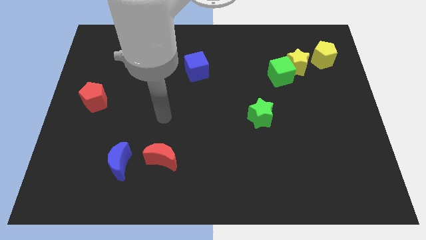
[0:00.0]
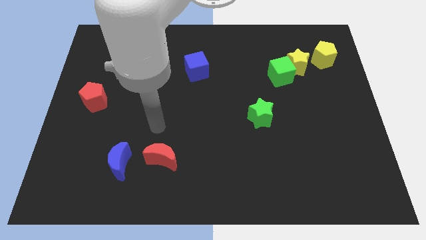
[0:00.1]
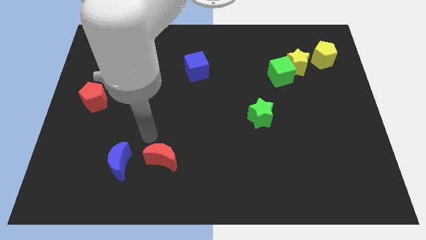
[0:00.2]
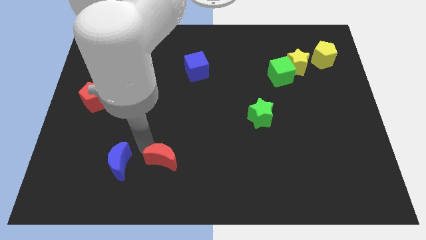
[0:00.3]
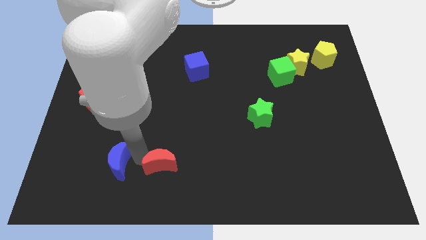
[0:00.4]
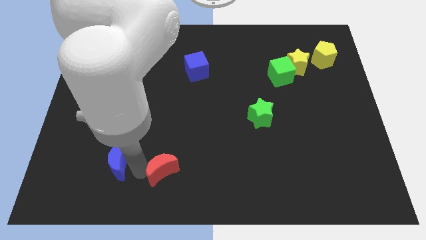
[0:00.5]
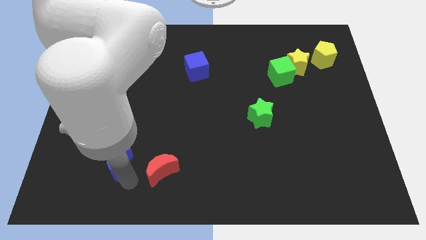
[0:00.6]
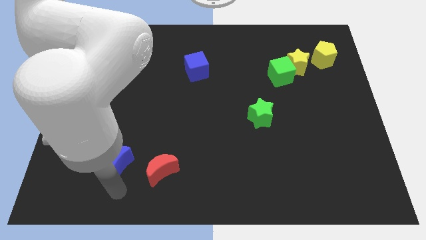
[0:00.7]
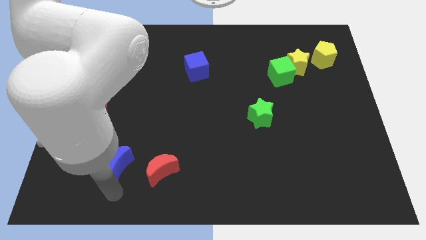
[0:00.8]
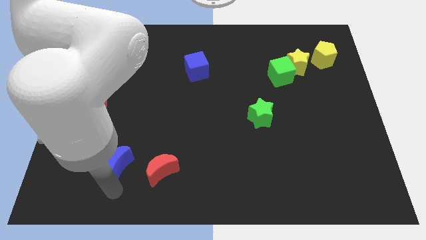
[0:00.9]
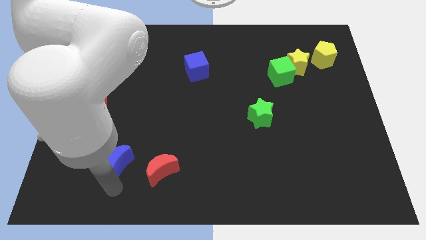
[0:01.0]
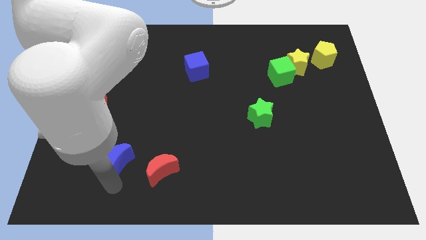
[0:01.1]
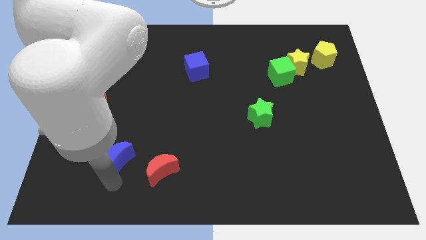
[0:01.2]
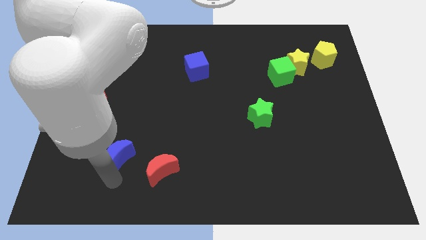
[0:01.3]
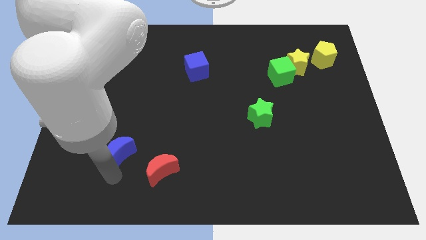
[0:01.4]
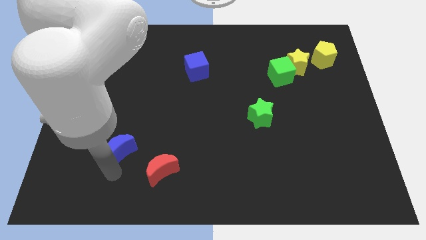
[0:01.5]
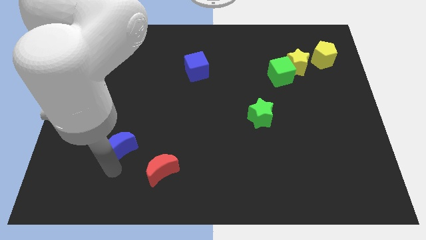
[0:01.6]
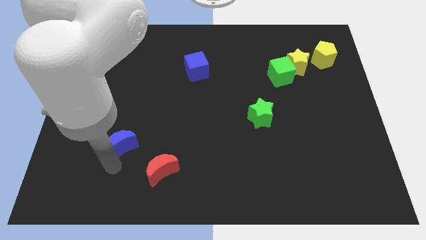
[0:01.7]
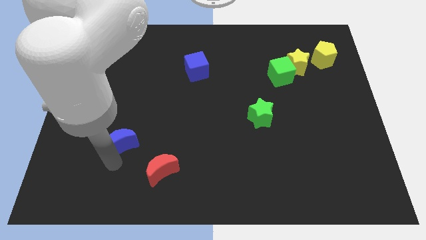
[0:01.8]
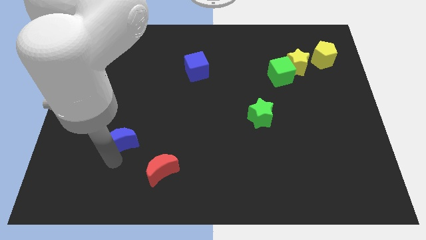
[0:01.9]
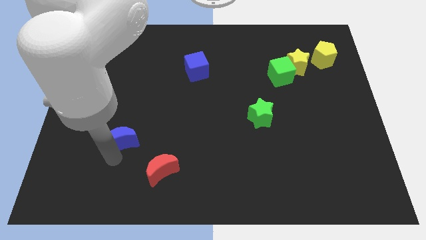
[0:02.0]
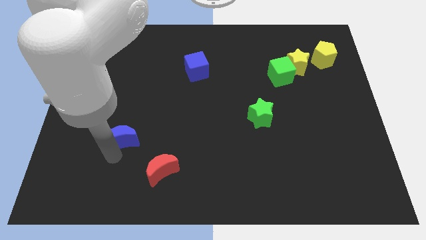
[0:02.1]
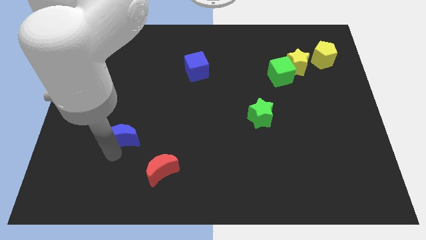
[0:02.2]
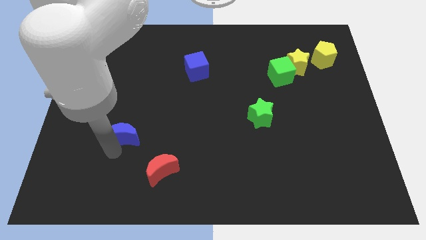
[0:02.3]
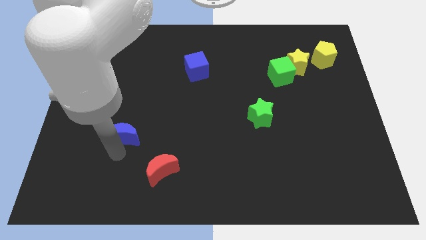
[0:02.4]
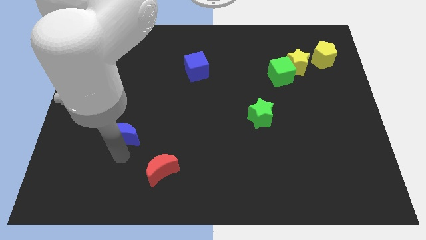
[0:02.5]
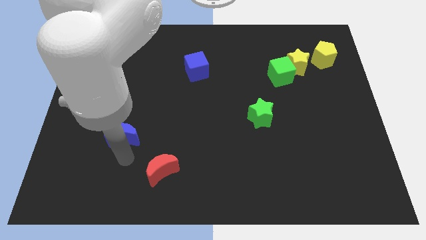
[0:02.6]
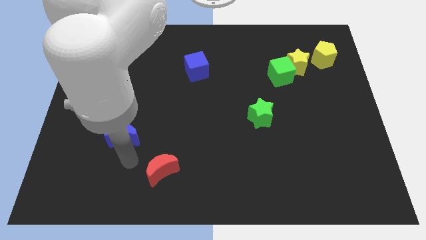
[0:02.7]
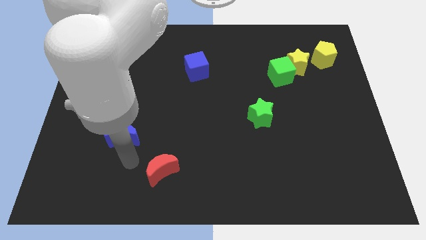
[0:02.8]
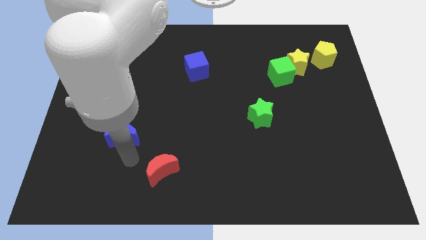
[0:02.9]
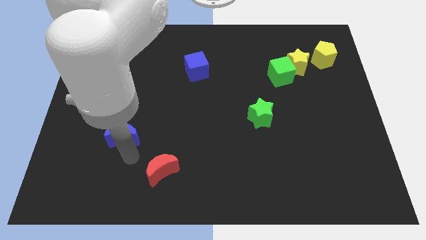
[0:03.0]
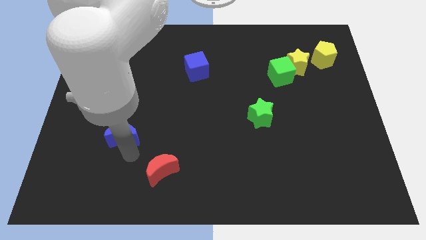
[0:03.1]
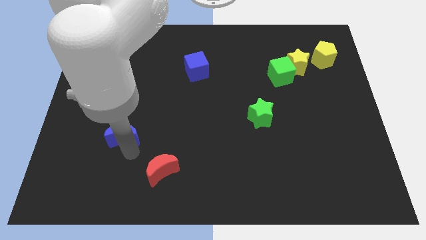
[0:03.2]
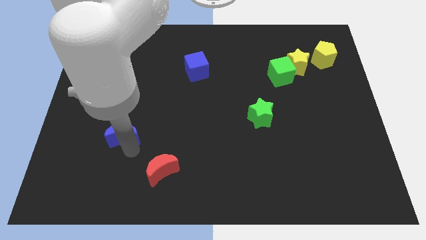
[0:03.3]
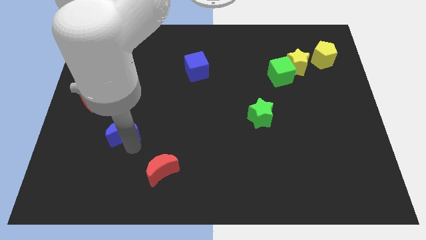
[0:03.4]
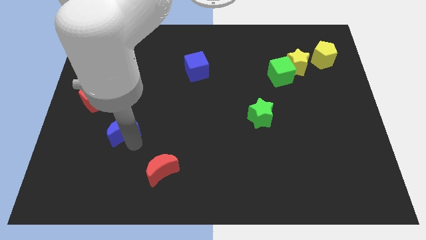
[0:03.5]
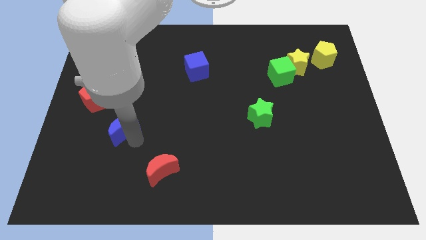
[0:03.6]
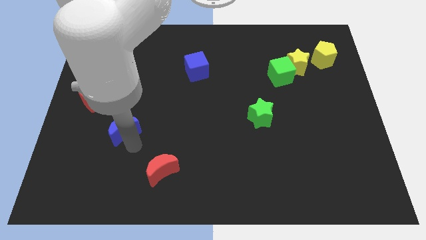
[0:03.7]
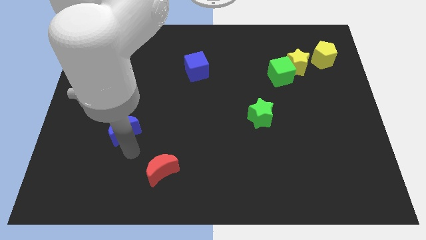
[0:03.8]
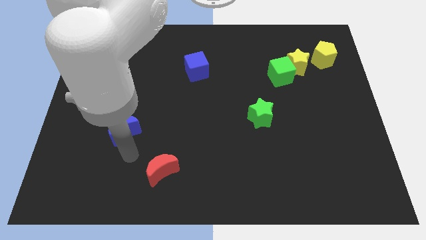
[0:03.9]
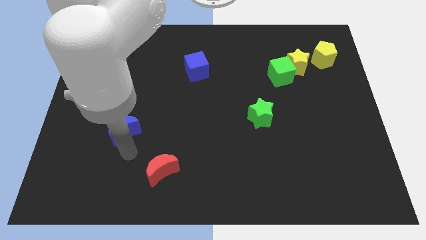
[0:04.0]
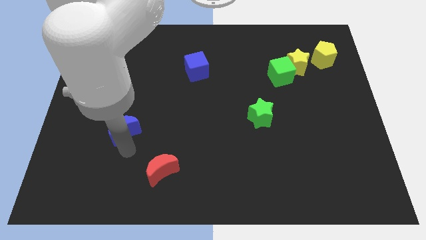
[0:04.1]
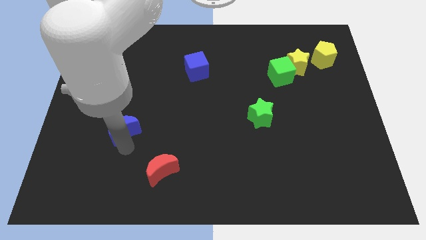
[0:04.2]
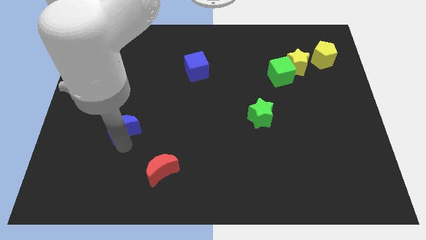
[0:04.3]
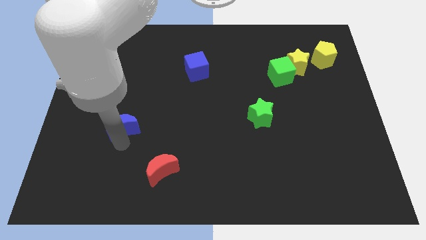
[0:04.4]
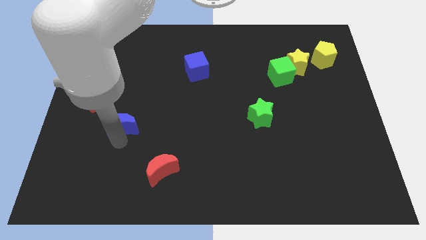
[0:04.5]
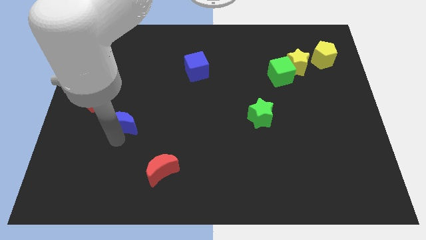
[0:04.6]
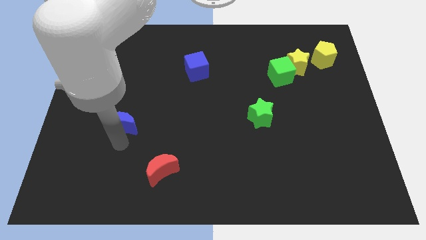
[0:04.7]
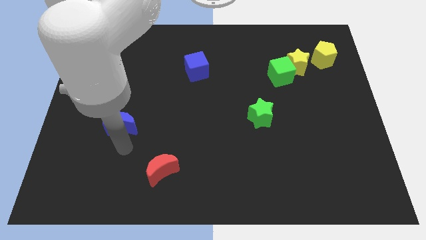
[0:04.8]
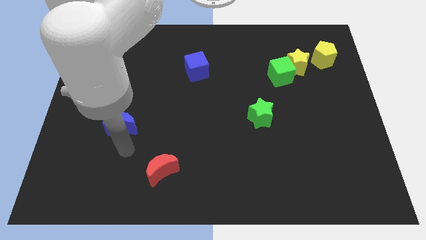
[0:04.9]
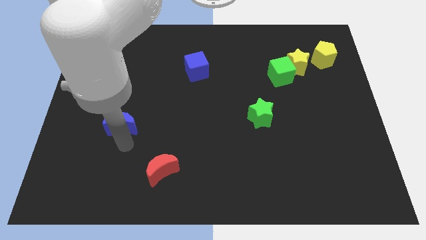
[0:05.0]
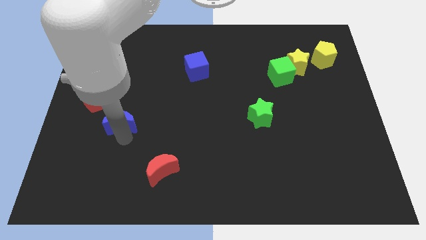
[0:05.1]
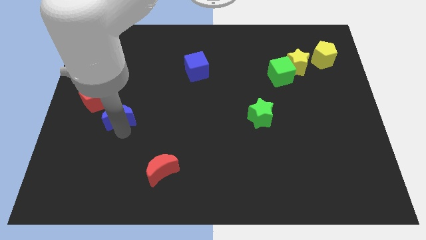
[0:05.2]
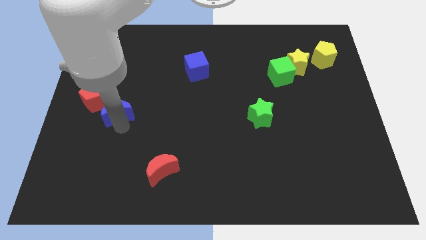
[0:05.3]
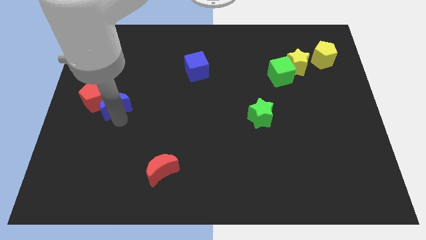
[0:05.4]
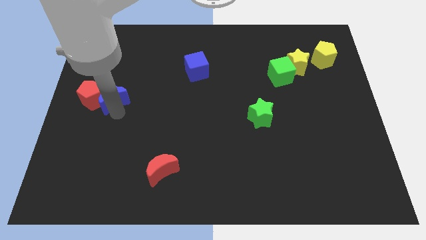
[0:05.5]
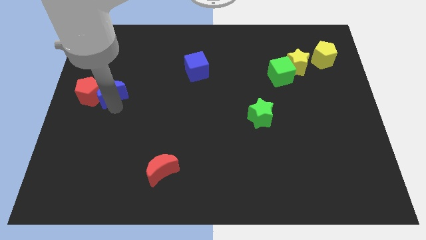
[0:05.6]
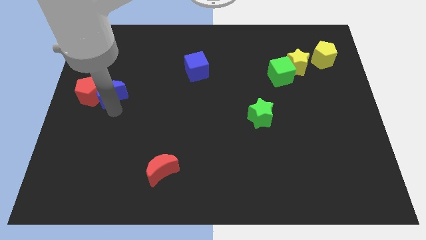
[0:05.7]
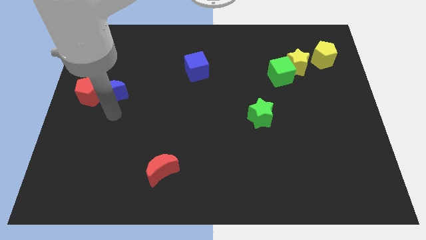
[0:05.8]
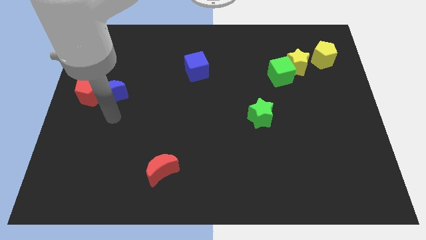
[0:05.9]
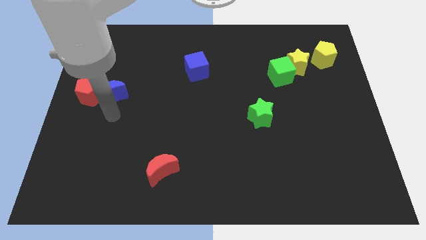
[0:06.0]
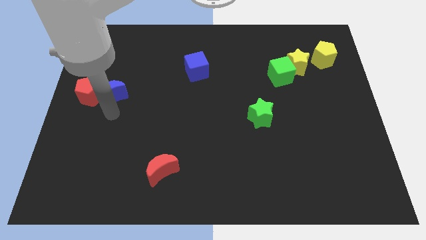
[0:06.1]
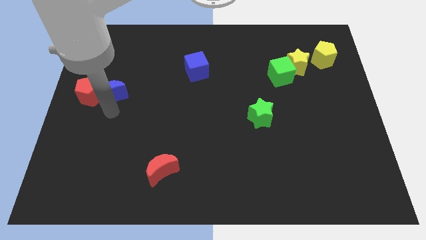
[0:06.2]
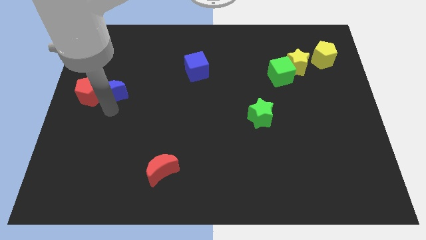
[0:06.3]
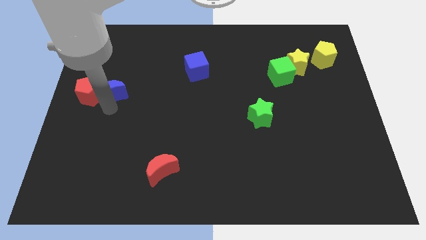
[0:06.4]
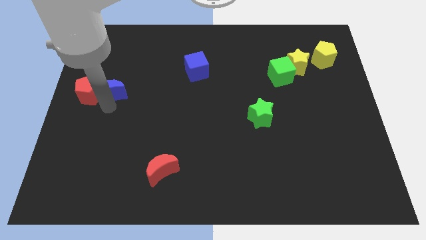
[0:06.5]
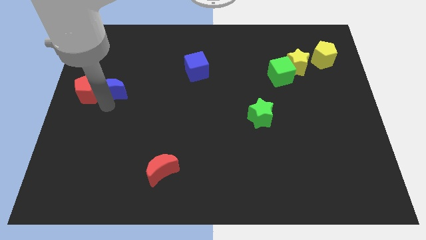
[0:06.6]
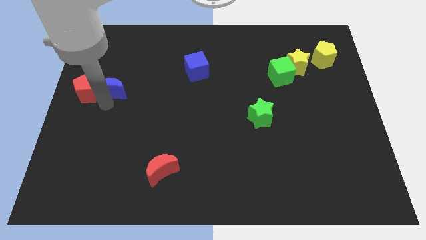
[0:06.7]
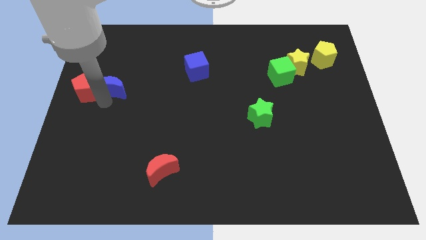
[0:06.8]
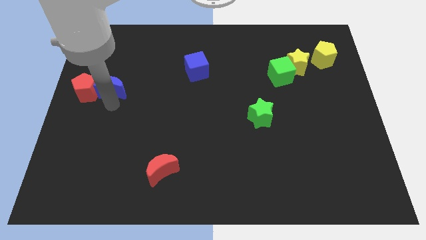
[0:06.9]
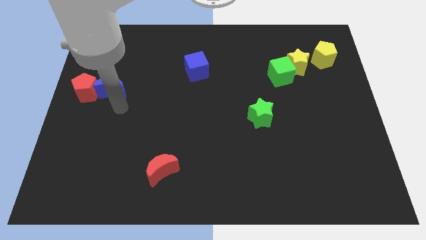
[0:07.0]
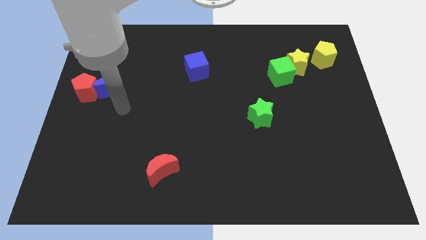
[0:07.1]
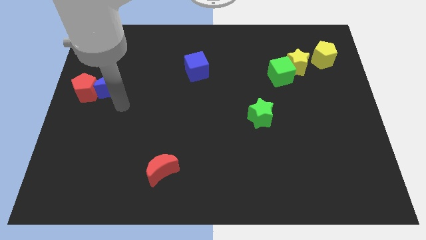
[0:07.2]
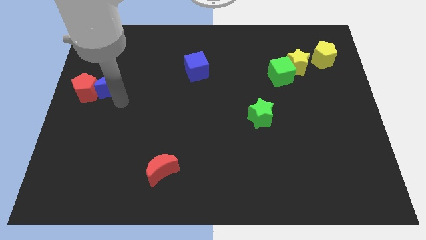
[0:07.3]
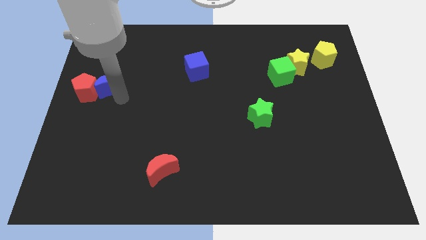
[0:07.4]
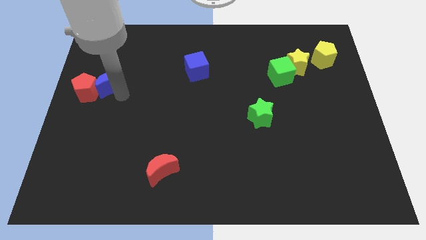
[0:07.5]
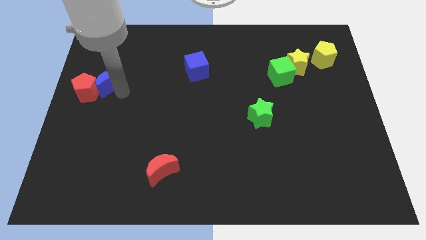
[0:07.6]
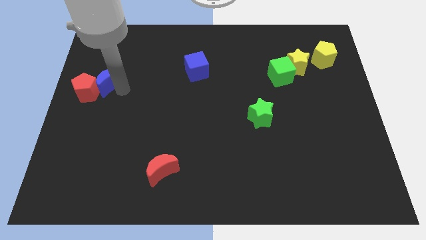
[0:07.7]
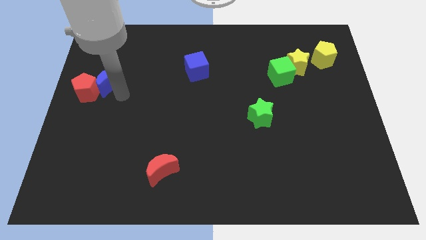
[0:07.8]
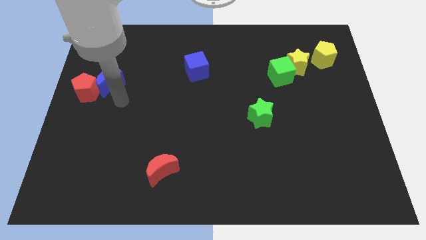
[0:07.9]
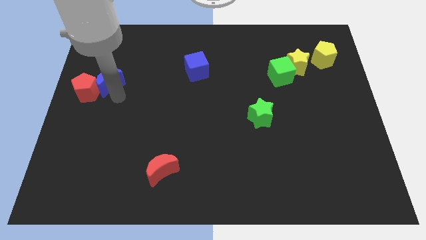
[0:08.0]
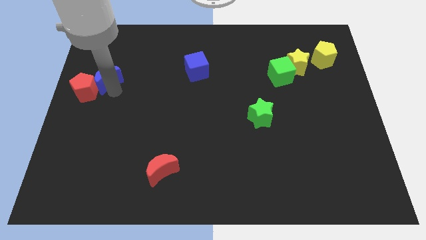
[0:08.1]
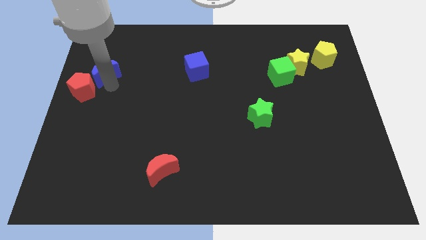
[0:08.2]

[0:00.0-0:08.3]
put the blue moon to the top of the red pentagon
